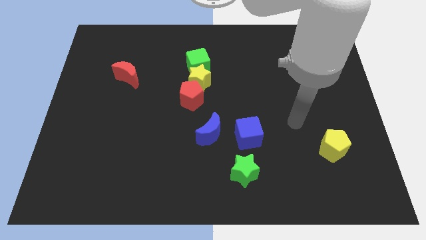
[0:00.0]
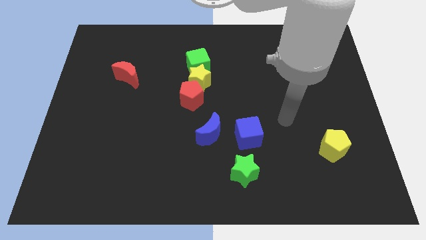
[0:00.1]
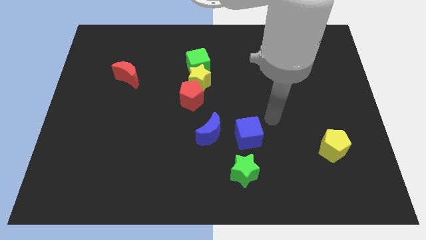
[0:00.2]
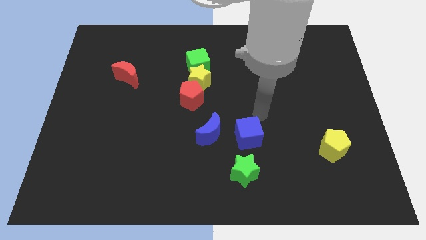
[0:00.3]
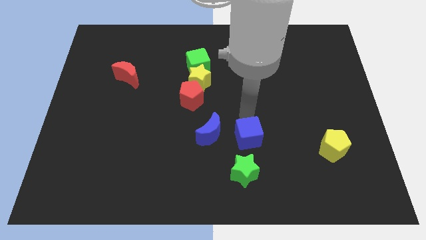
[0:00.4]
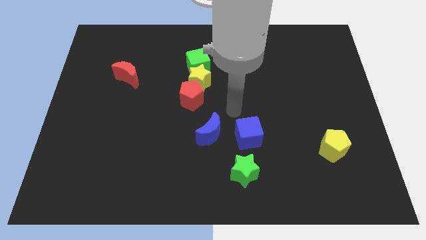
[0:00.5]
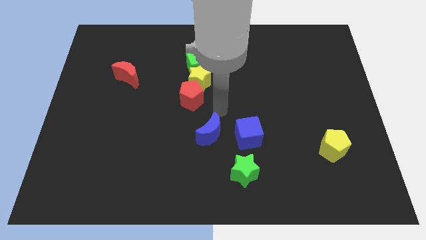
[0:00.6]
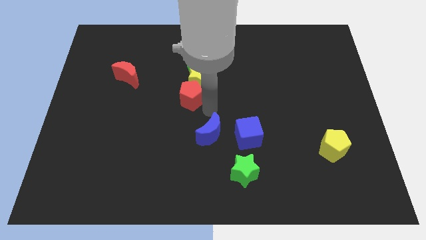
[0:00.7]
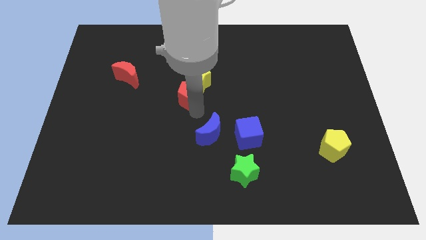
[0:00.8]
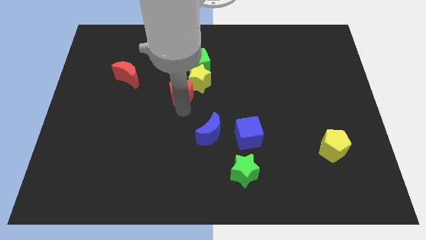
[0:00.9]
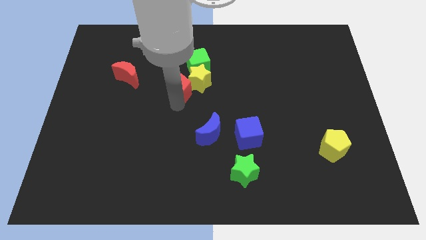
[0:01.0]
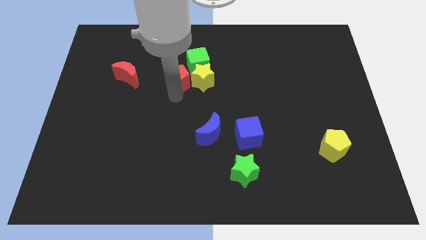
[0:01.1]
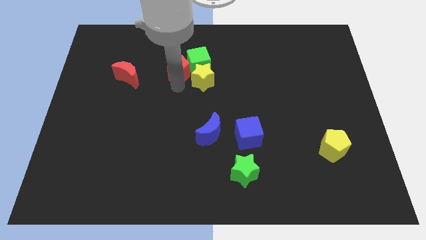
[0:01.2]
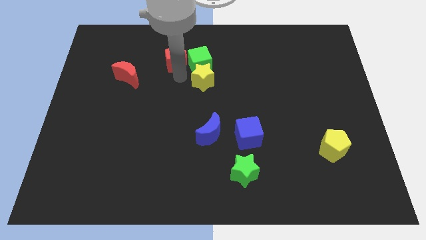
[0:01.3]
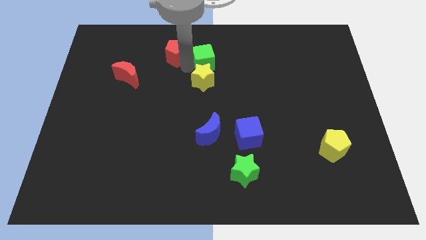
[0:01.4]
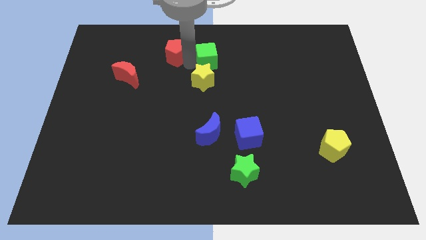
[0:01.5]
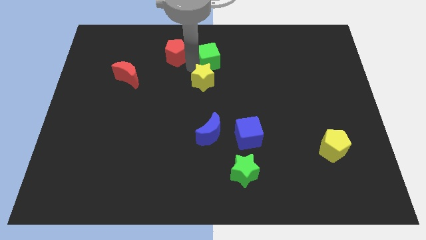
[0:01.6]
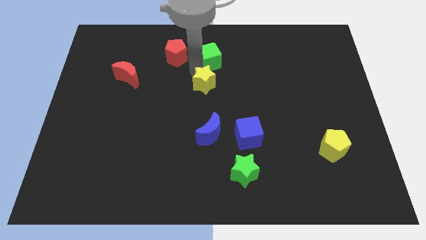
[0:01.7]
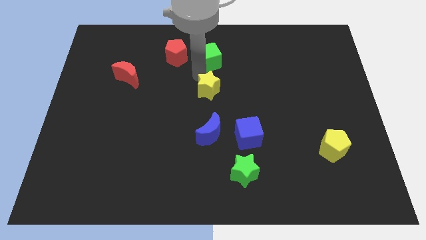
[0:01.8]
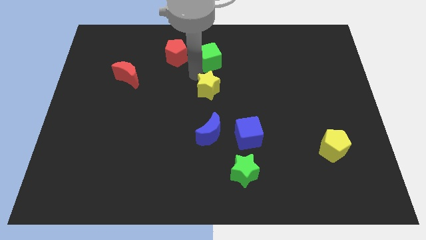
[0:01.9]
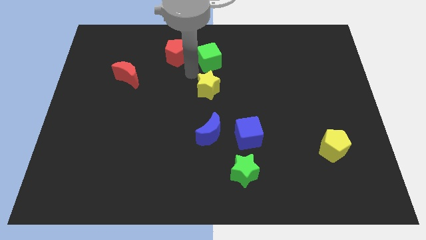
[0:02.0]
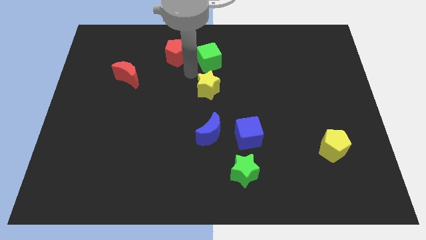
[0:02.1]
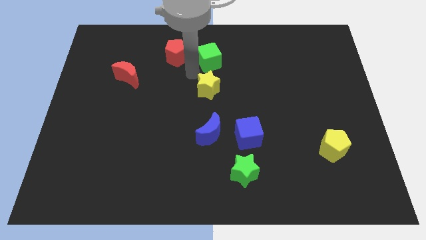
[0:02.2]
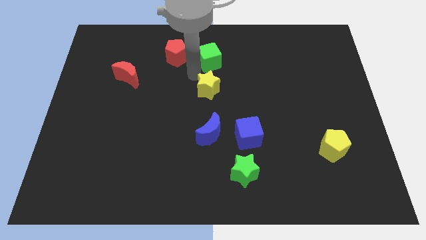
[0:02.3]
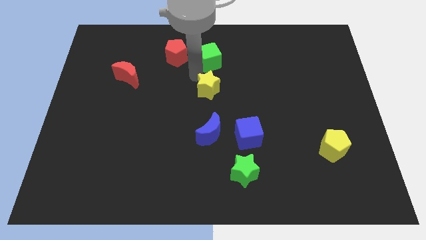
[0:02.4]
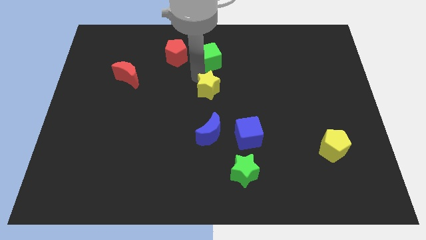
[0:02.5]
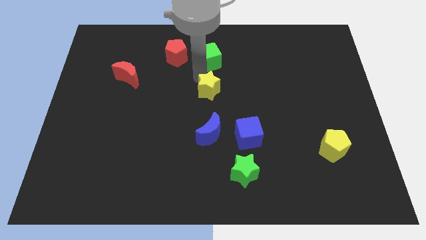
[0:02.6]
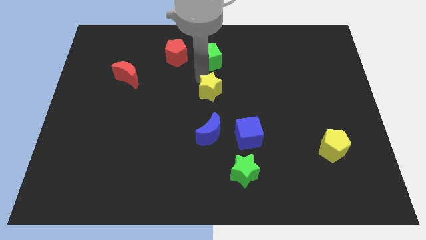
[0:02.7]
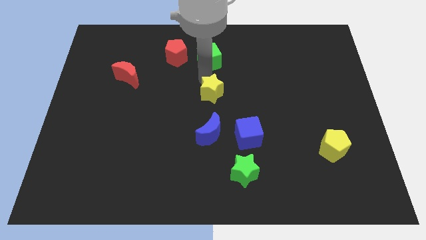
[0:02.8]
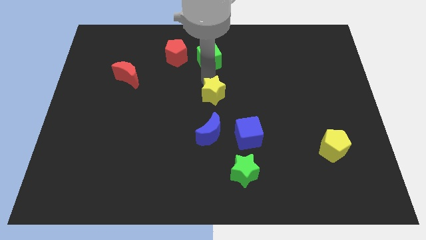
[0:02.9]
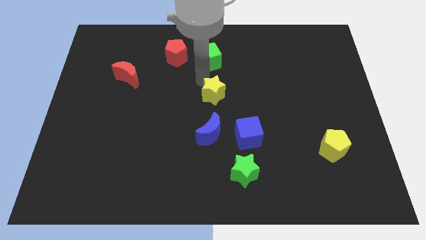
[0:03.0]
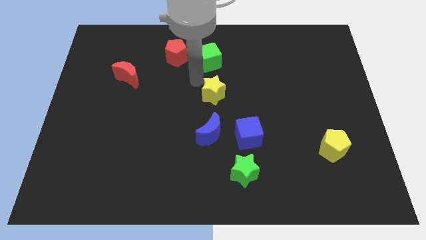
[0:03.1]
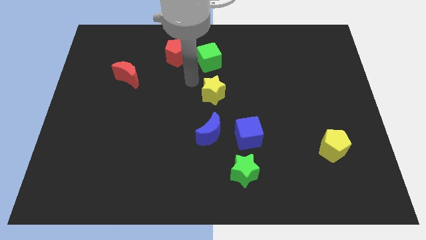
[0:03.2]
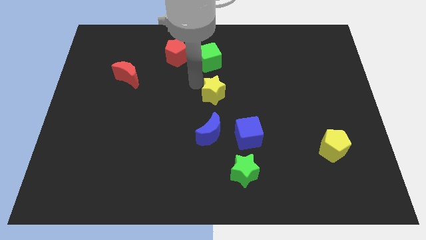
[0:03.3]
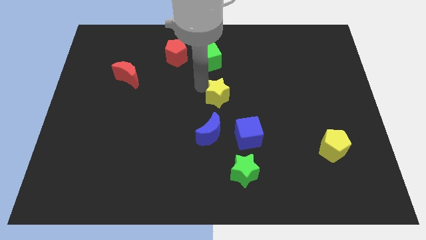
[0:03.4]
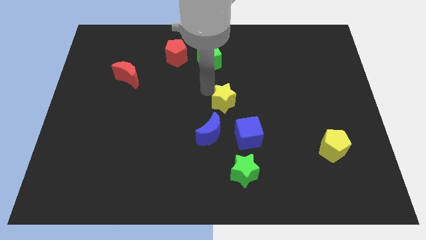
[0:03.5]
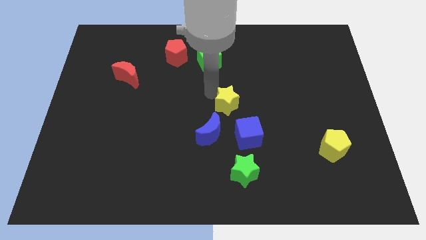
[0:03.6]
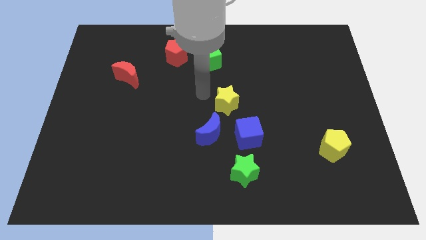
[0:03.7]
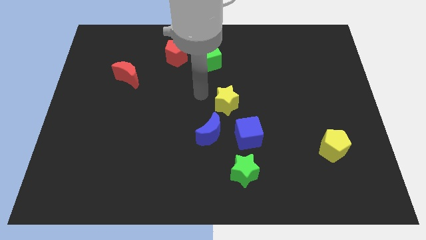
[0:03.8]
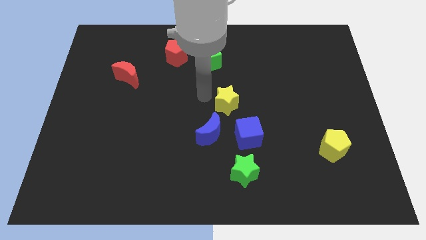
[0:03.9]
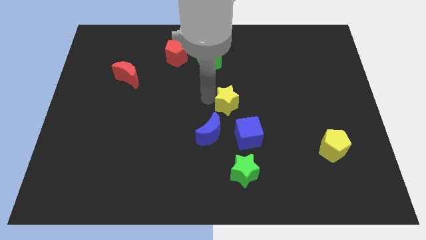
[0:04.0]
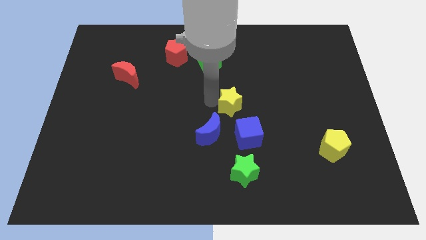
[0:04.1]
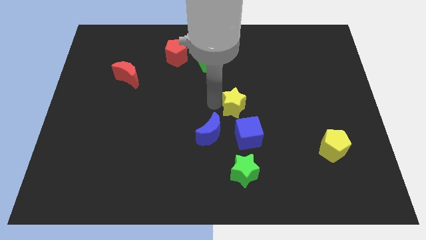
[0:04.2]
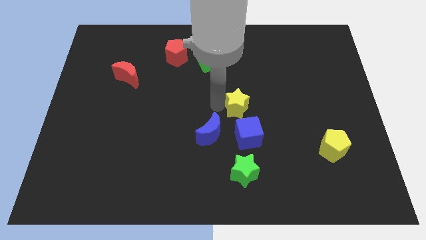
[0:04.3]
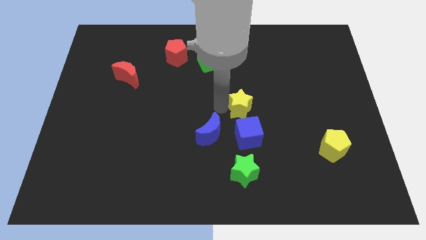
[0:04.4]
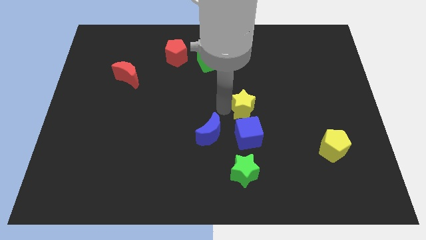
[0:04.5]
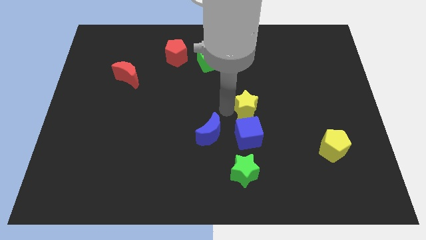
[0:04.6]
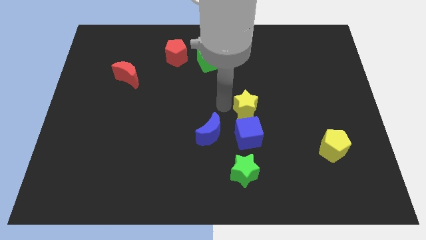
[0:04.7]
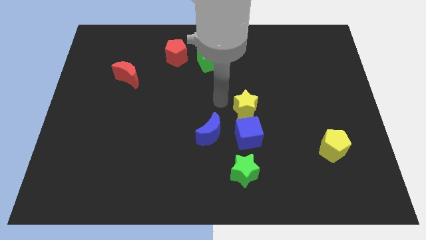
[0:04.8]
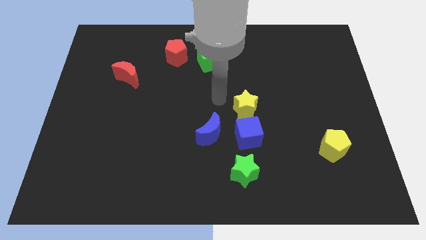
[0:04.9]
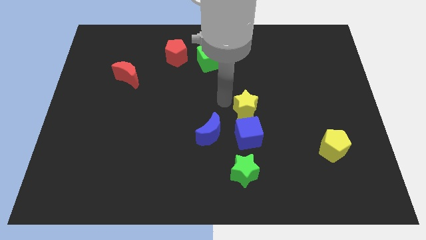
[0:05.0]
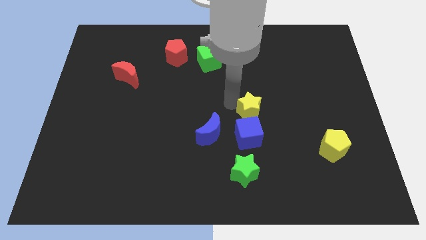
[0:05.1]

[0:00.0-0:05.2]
push the yellow star diagonally up and to the right of the blue cube

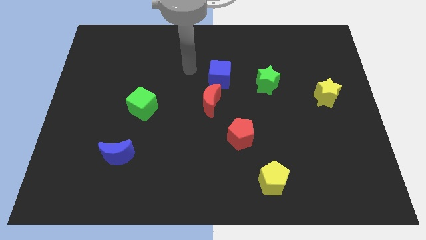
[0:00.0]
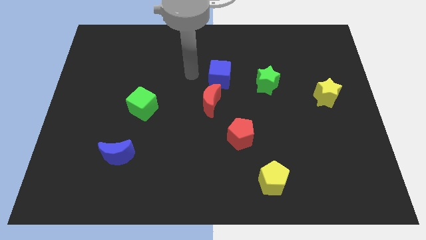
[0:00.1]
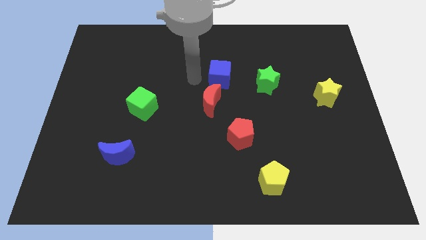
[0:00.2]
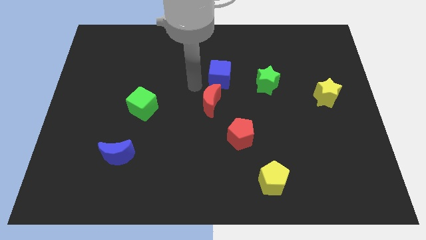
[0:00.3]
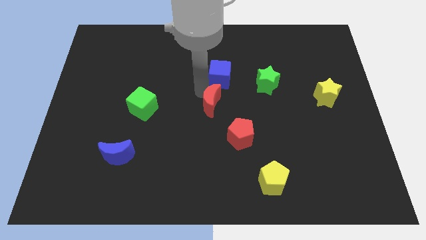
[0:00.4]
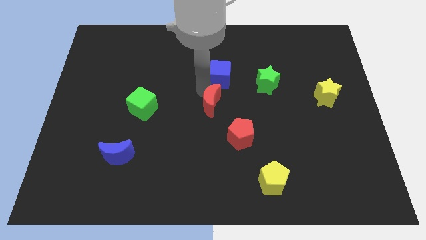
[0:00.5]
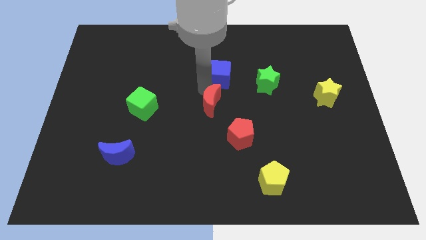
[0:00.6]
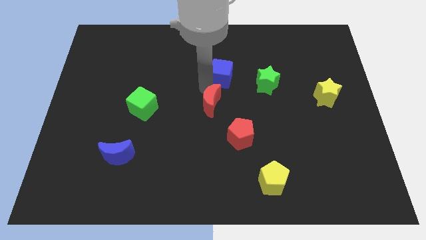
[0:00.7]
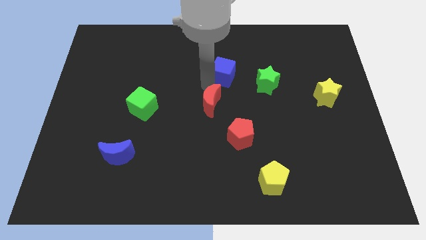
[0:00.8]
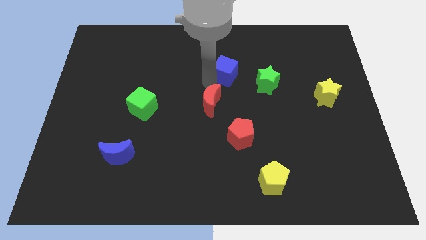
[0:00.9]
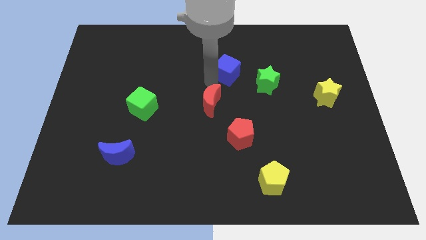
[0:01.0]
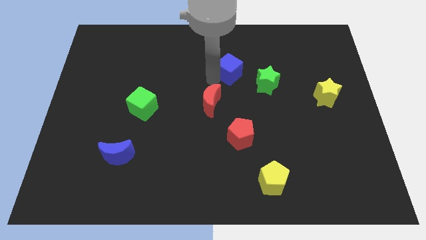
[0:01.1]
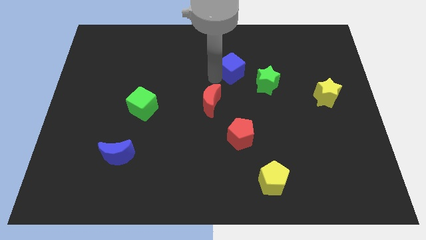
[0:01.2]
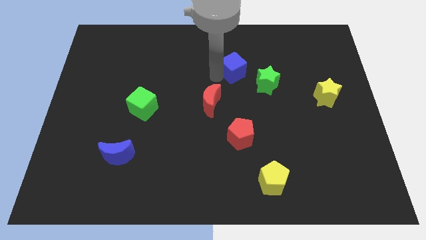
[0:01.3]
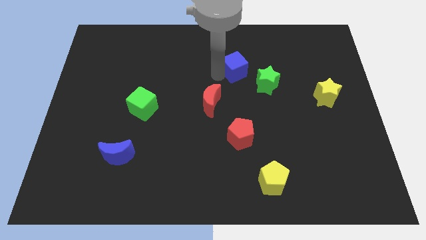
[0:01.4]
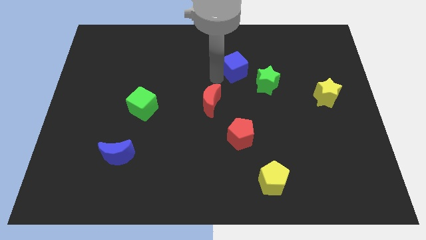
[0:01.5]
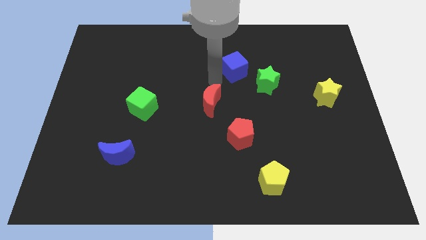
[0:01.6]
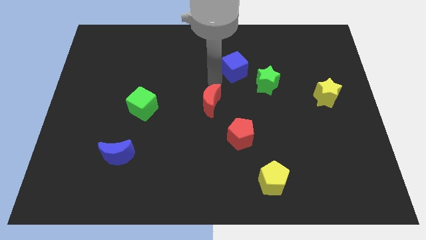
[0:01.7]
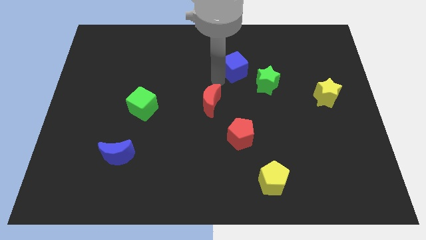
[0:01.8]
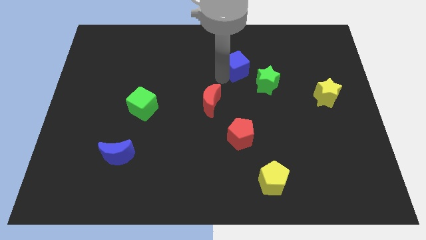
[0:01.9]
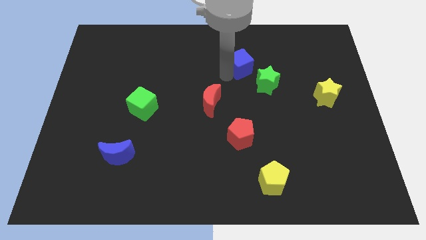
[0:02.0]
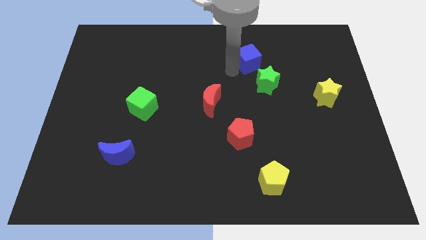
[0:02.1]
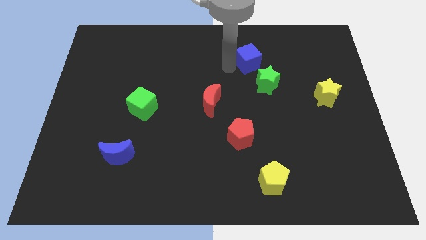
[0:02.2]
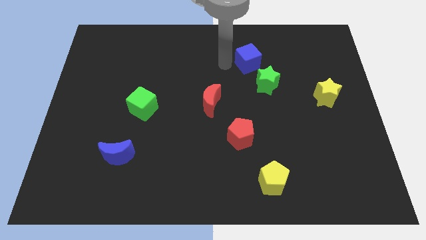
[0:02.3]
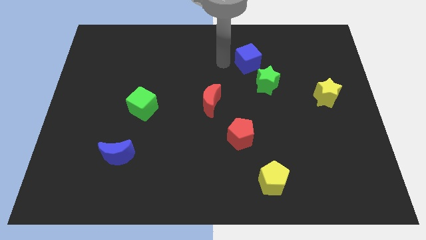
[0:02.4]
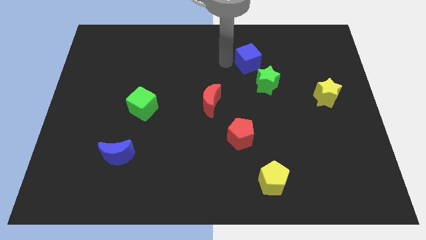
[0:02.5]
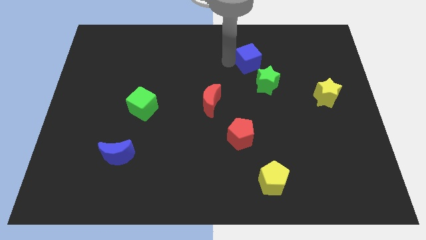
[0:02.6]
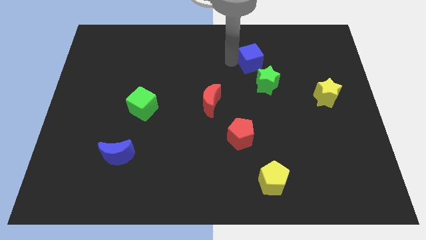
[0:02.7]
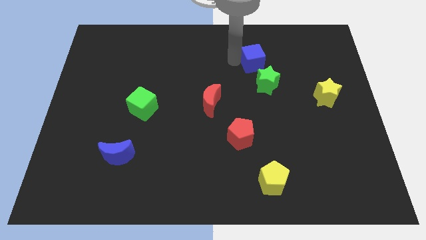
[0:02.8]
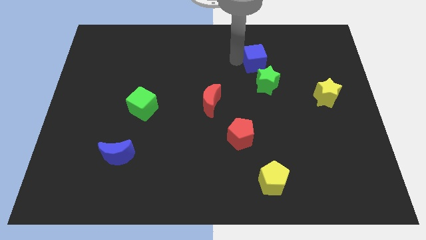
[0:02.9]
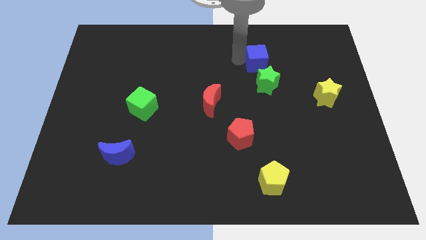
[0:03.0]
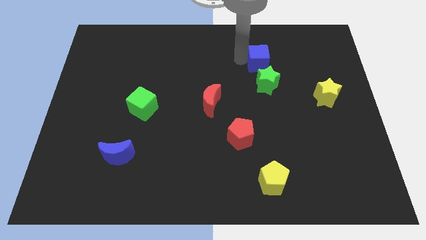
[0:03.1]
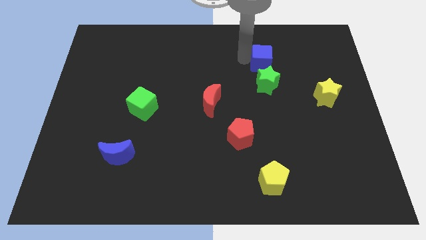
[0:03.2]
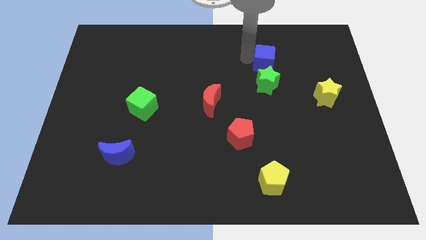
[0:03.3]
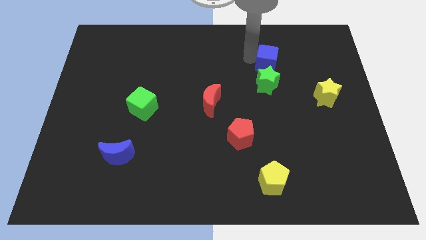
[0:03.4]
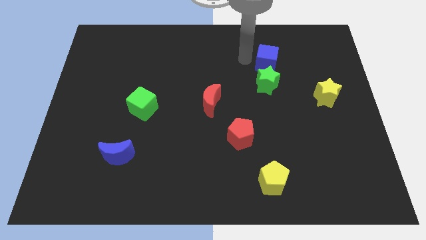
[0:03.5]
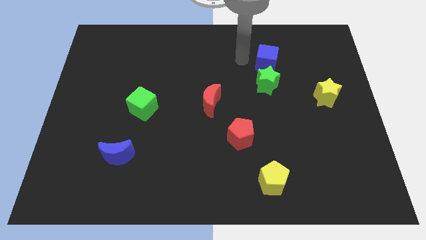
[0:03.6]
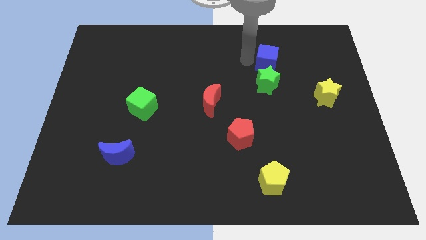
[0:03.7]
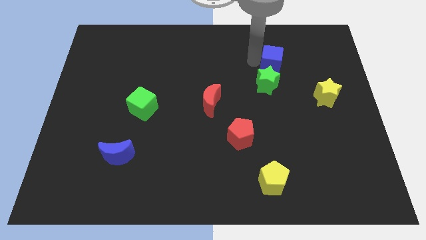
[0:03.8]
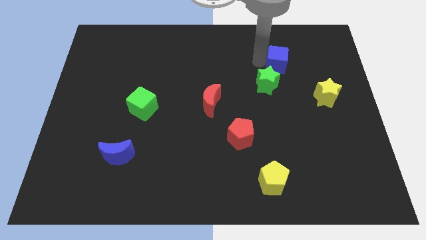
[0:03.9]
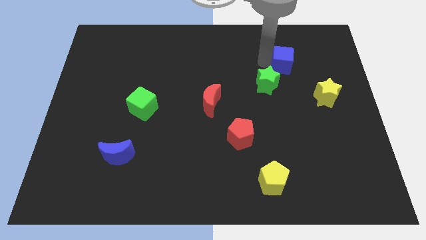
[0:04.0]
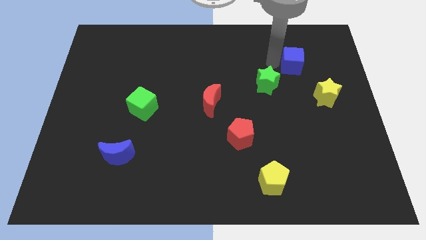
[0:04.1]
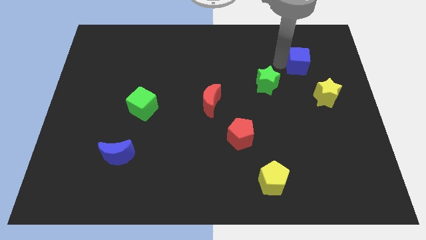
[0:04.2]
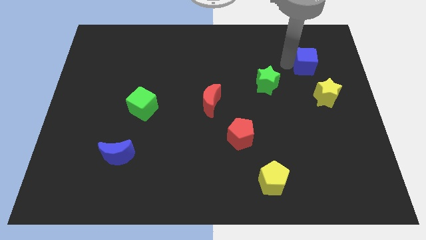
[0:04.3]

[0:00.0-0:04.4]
move the blue cube above the yellow star
